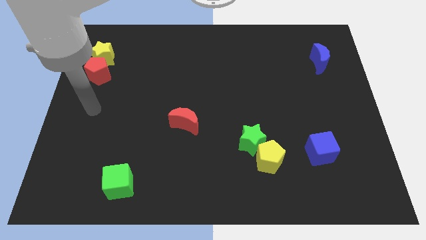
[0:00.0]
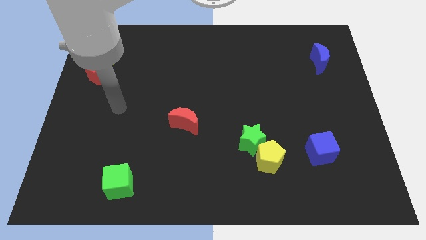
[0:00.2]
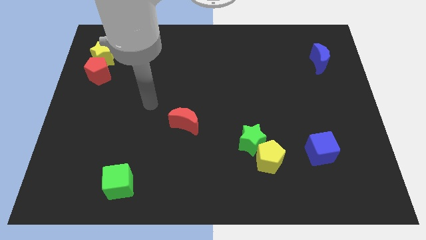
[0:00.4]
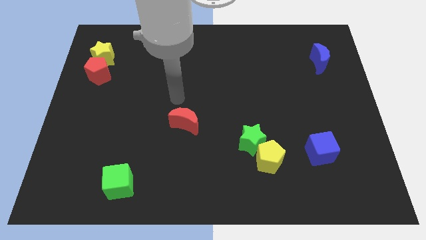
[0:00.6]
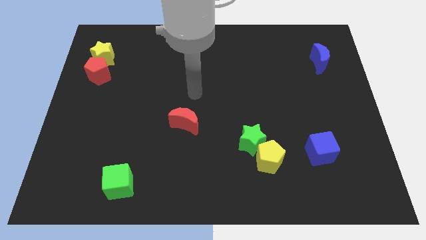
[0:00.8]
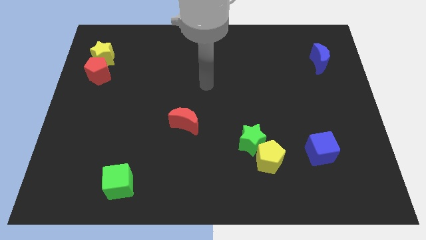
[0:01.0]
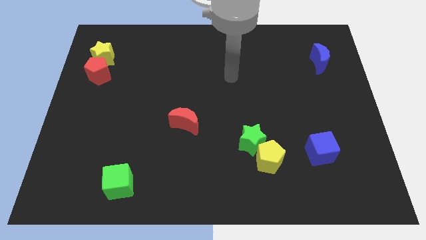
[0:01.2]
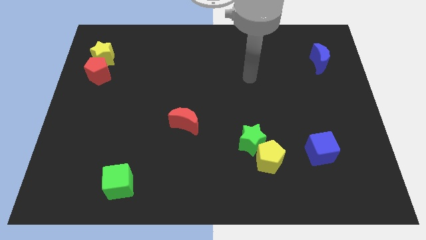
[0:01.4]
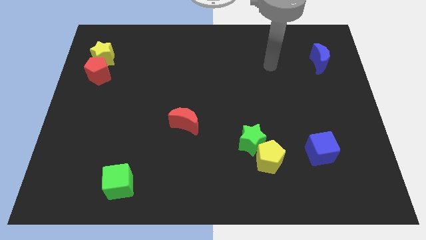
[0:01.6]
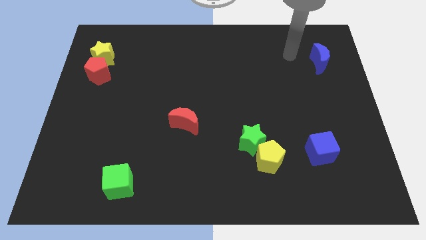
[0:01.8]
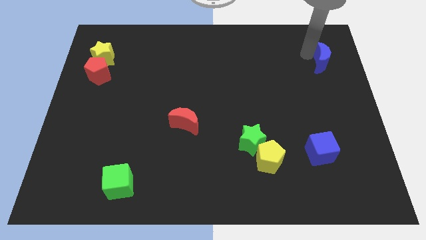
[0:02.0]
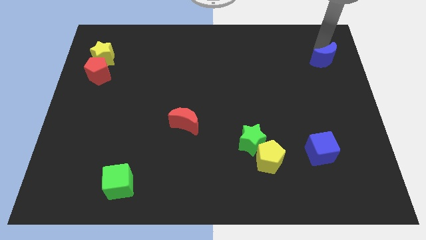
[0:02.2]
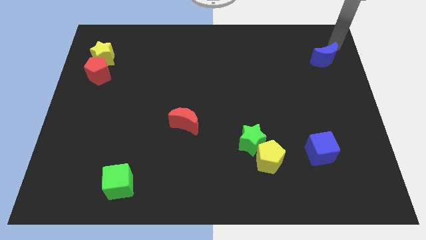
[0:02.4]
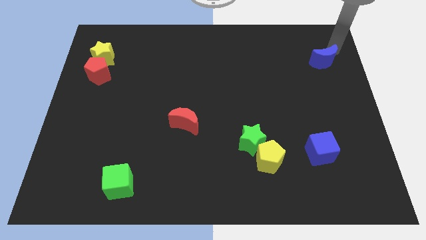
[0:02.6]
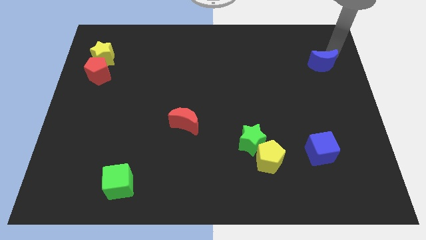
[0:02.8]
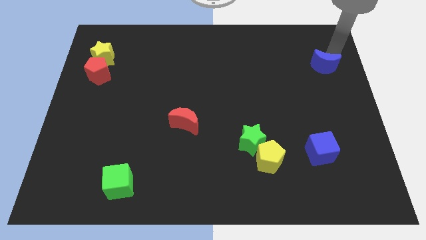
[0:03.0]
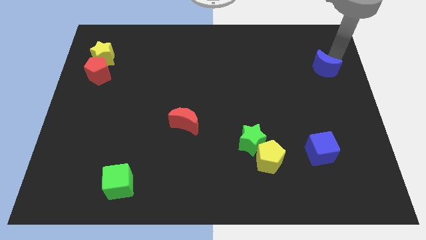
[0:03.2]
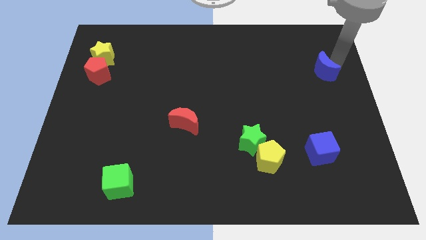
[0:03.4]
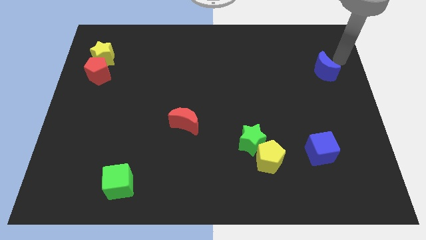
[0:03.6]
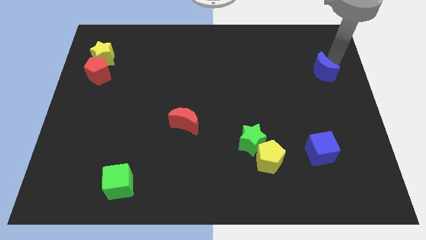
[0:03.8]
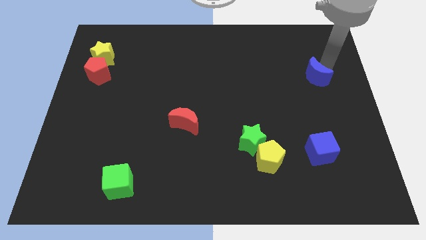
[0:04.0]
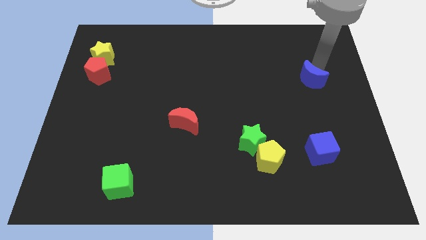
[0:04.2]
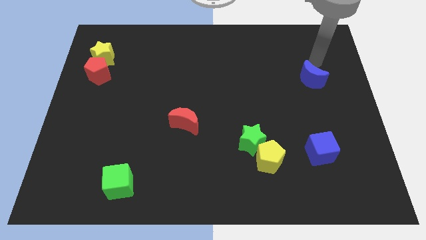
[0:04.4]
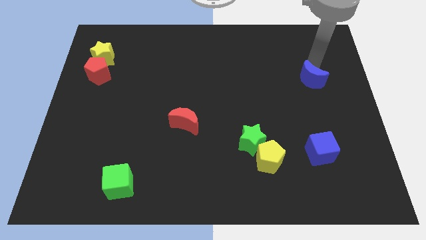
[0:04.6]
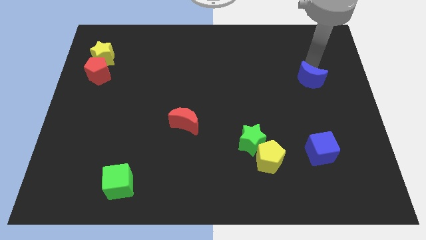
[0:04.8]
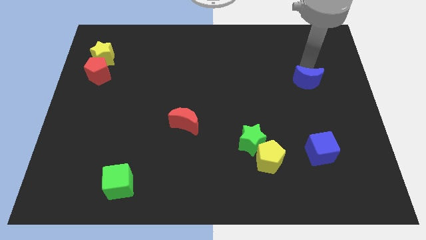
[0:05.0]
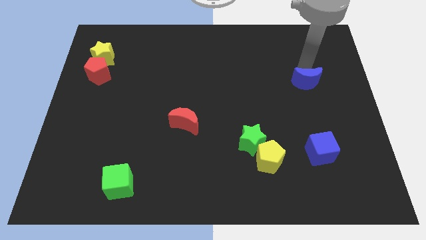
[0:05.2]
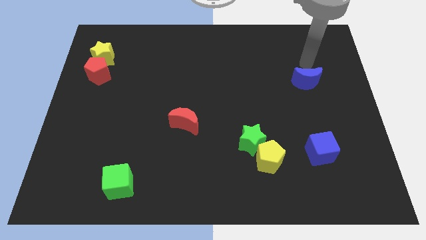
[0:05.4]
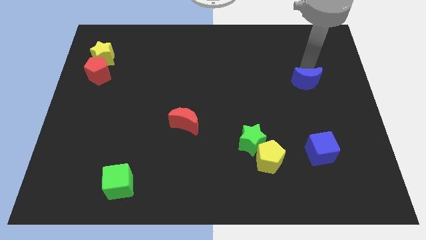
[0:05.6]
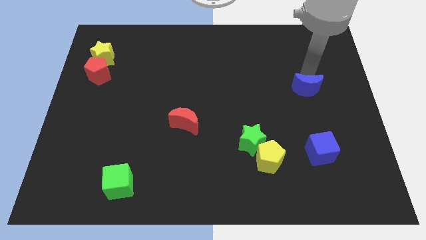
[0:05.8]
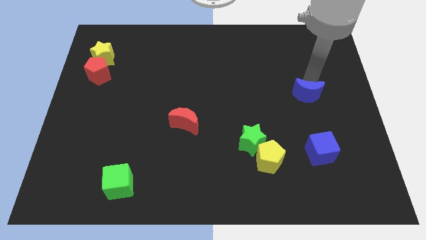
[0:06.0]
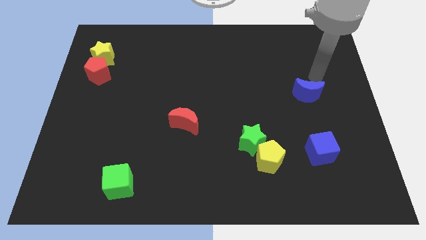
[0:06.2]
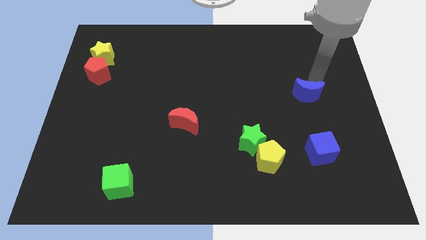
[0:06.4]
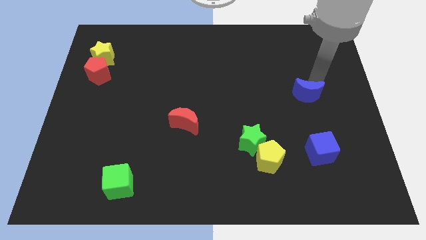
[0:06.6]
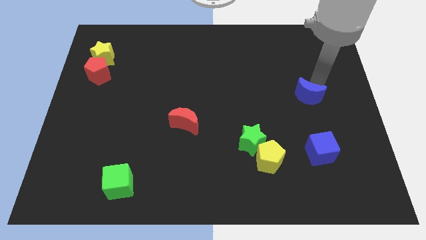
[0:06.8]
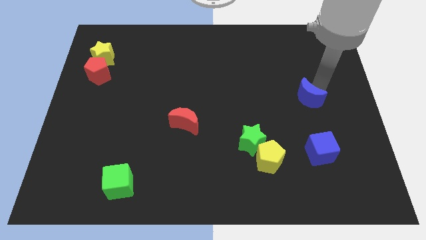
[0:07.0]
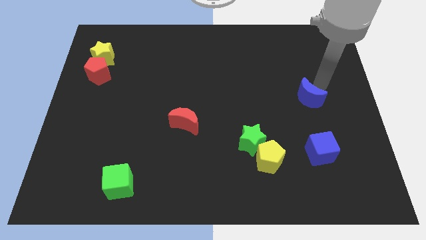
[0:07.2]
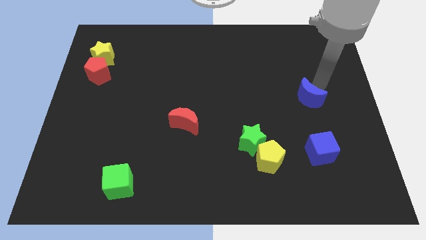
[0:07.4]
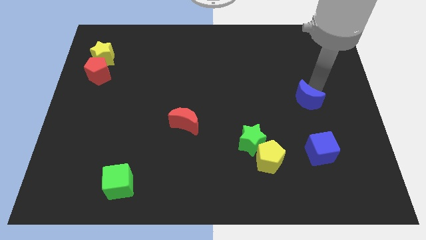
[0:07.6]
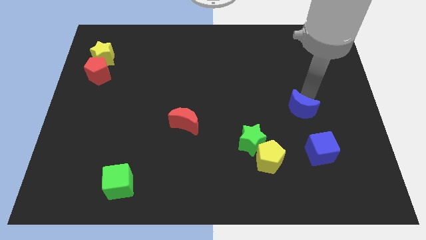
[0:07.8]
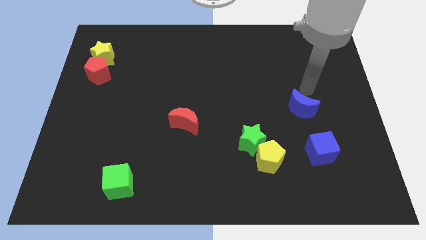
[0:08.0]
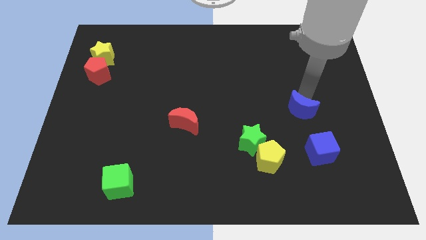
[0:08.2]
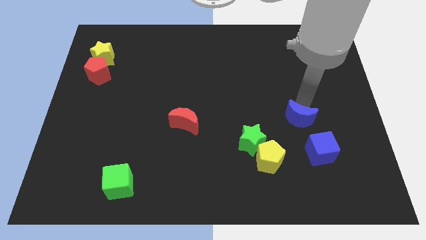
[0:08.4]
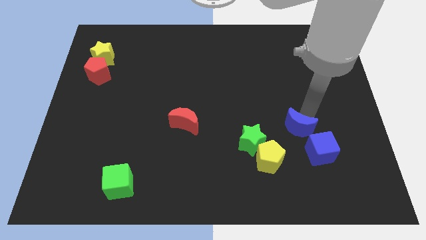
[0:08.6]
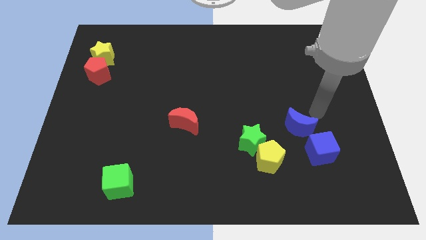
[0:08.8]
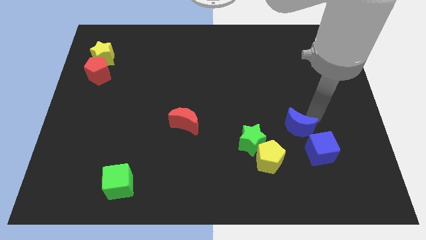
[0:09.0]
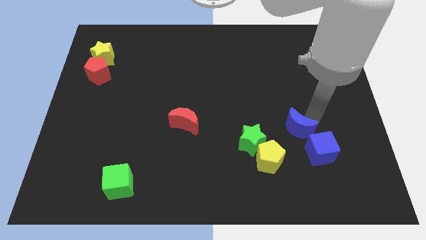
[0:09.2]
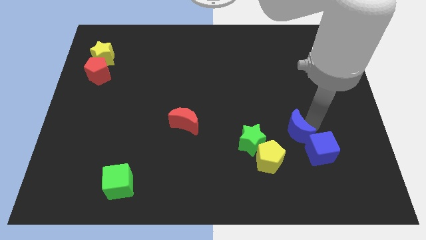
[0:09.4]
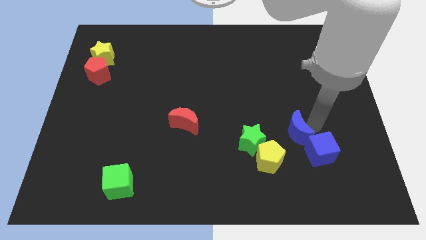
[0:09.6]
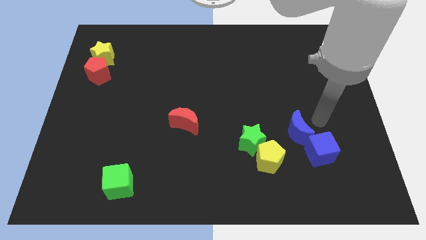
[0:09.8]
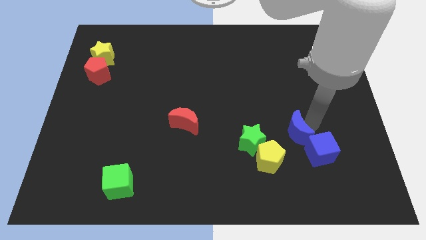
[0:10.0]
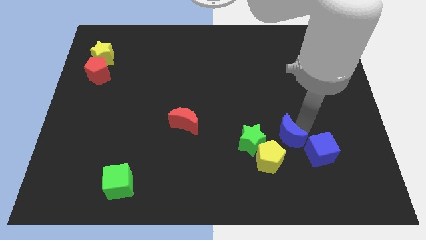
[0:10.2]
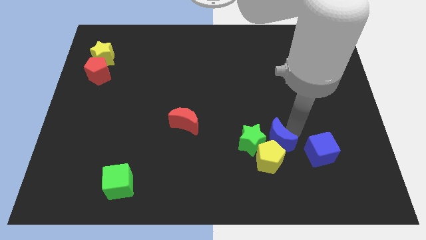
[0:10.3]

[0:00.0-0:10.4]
move the blue moon to the yellow pentagon

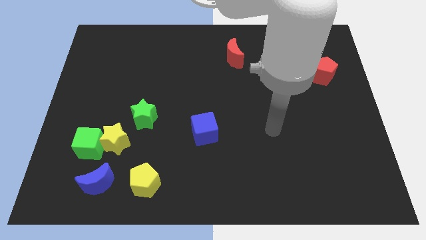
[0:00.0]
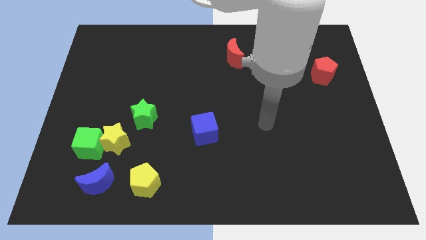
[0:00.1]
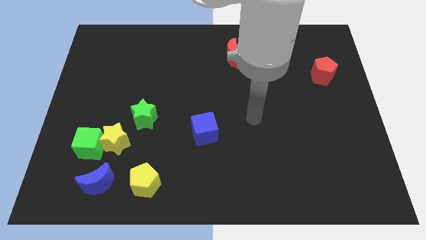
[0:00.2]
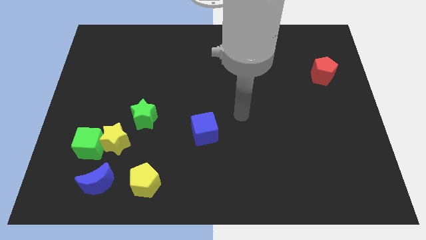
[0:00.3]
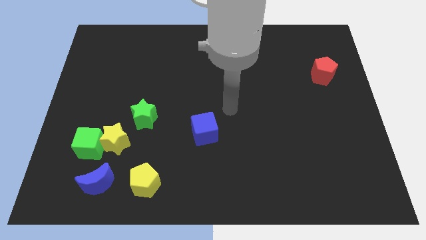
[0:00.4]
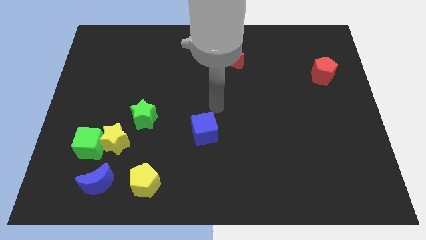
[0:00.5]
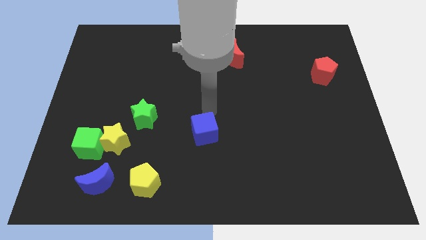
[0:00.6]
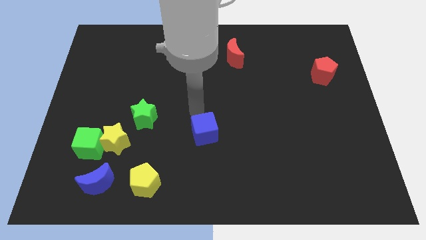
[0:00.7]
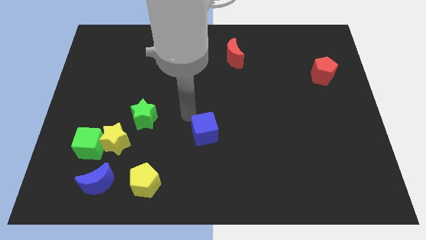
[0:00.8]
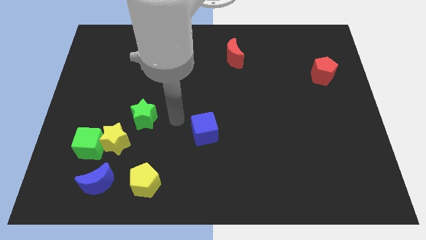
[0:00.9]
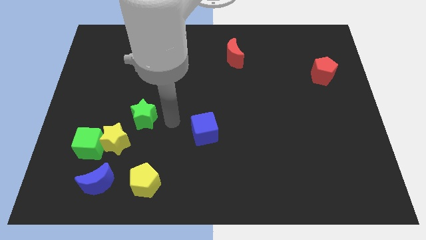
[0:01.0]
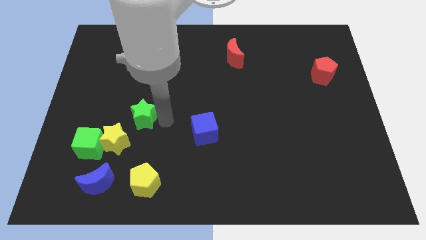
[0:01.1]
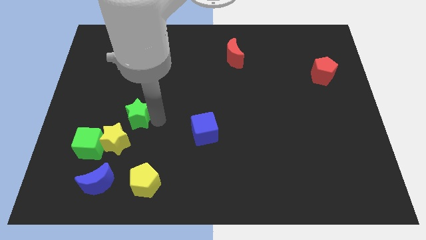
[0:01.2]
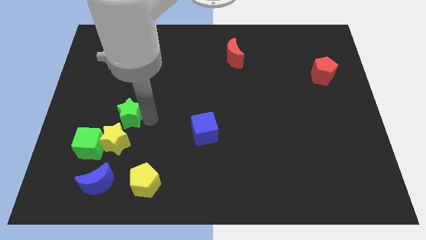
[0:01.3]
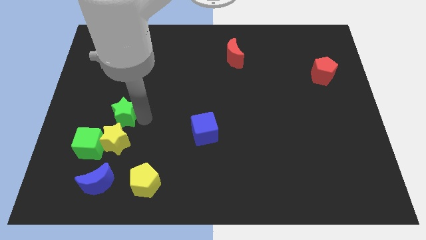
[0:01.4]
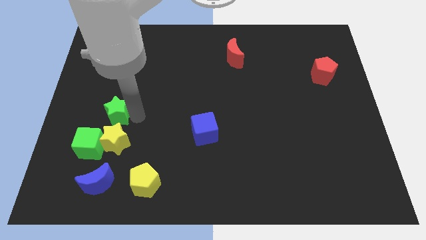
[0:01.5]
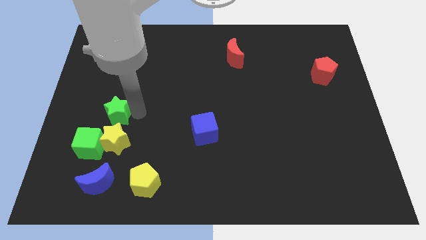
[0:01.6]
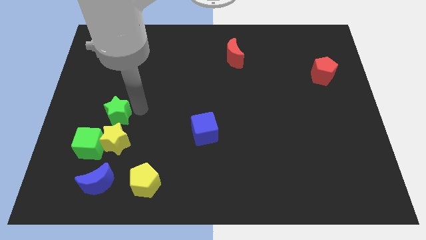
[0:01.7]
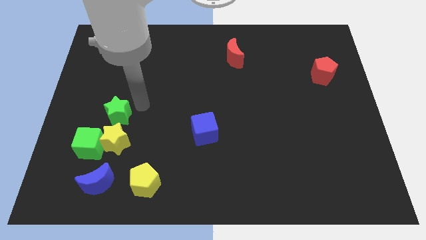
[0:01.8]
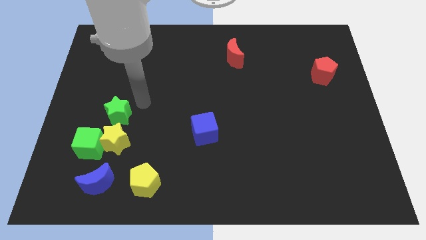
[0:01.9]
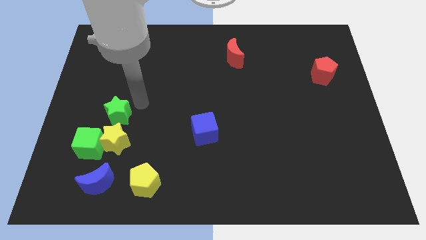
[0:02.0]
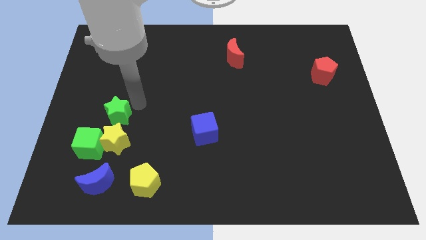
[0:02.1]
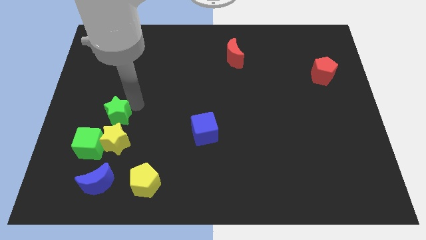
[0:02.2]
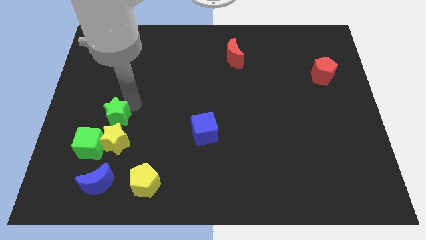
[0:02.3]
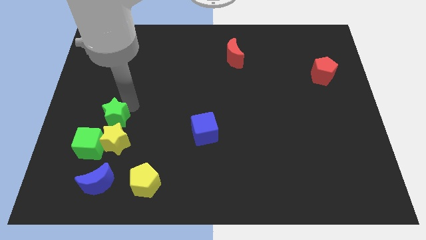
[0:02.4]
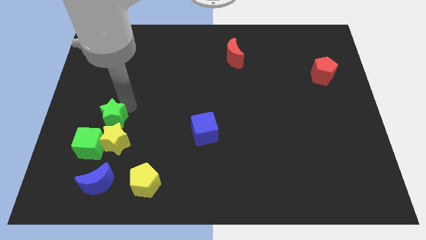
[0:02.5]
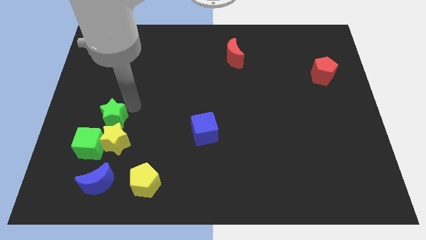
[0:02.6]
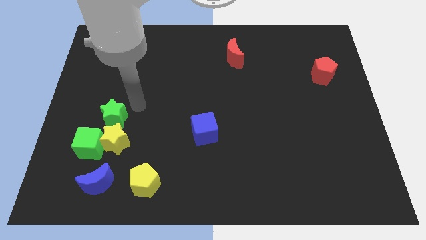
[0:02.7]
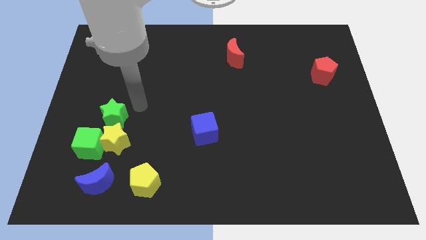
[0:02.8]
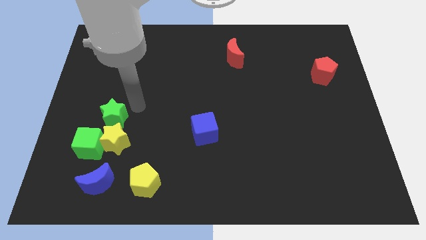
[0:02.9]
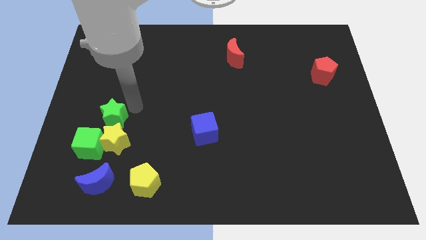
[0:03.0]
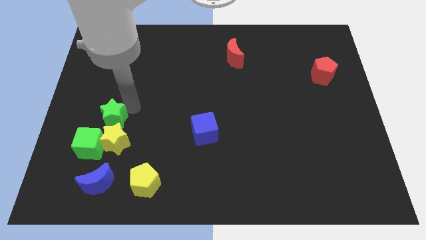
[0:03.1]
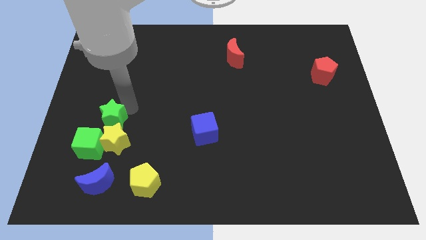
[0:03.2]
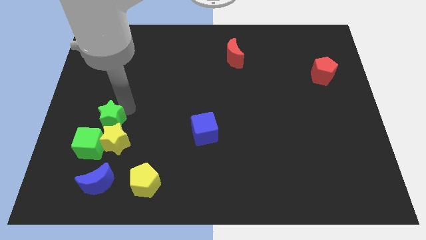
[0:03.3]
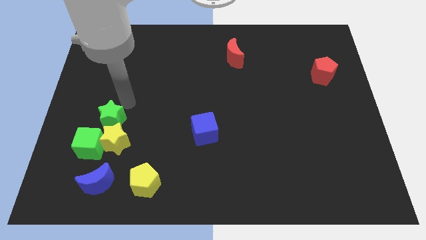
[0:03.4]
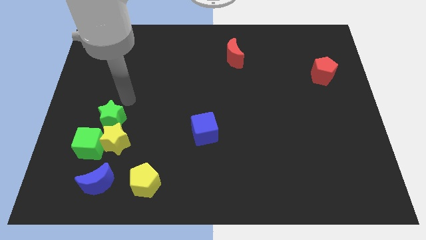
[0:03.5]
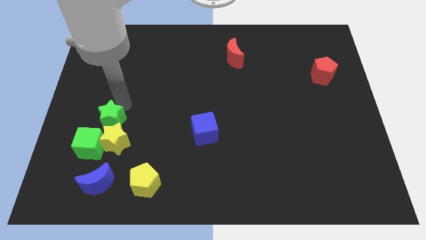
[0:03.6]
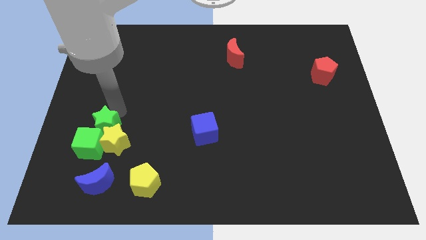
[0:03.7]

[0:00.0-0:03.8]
put the green star towards the green cube
